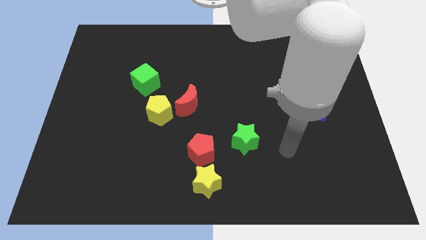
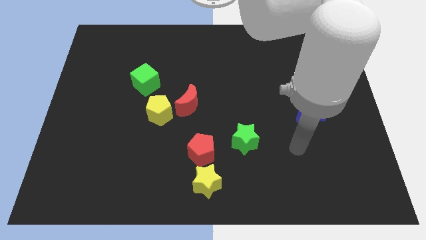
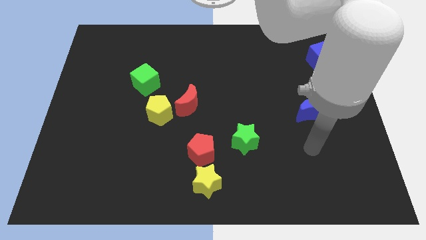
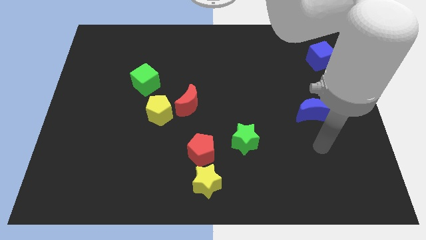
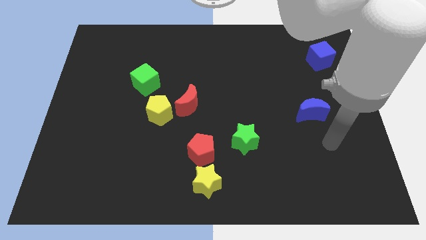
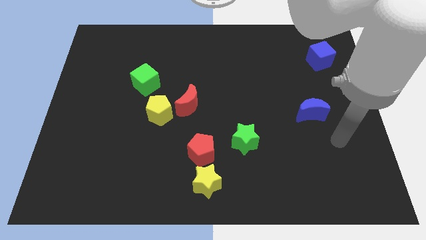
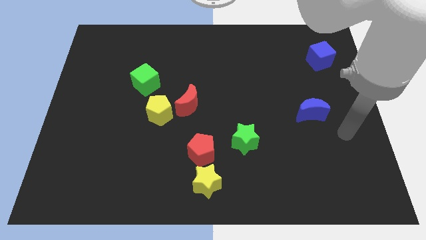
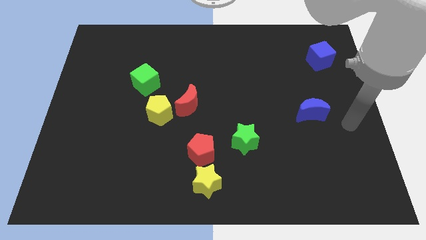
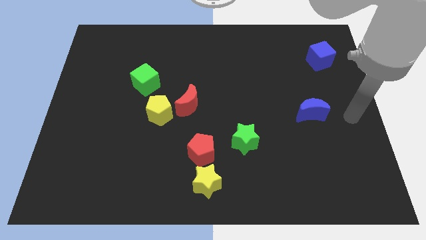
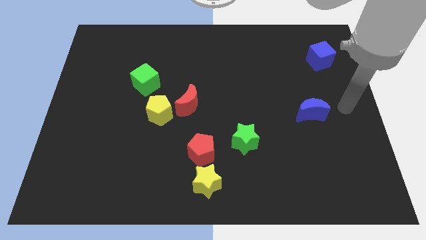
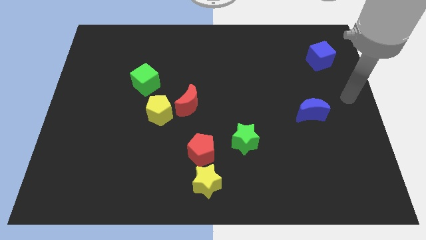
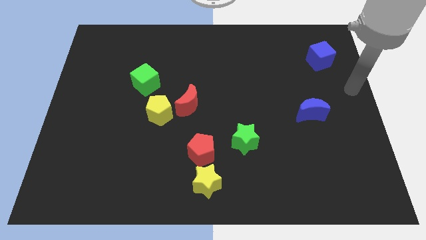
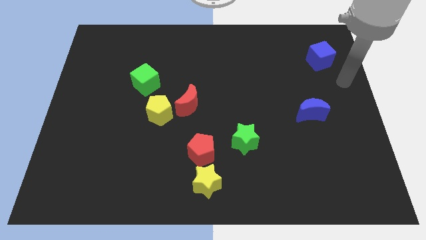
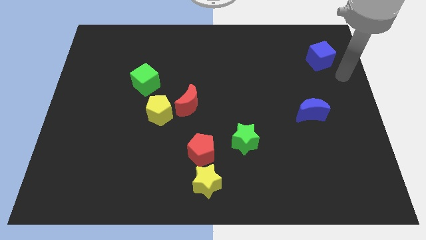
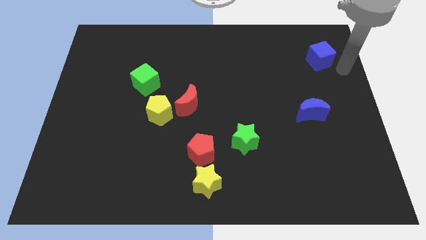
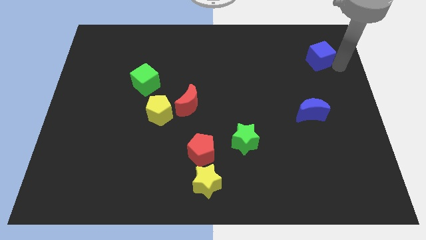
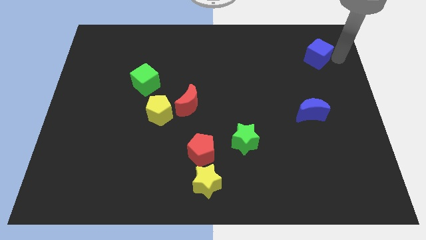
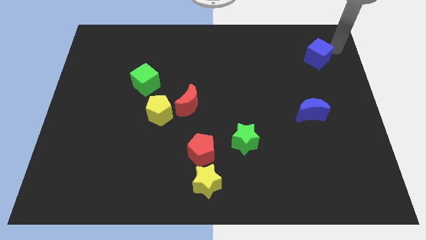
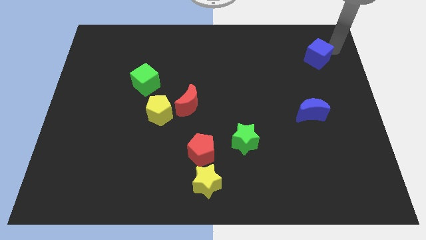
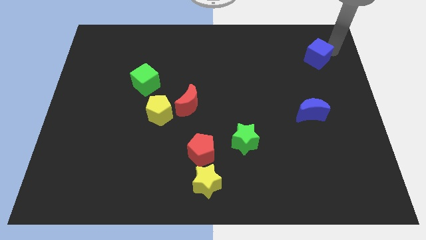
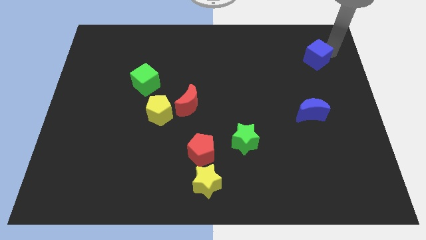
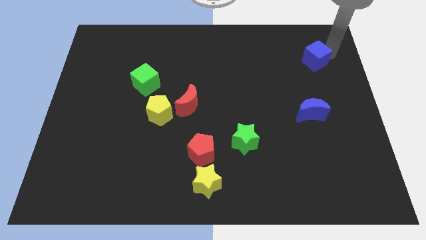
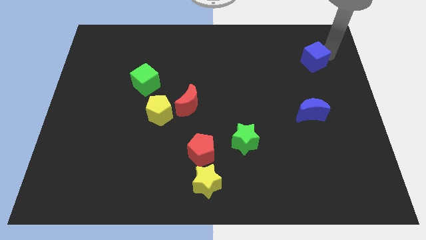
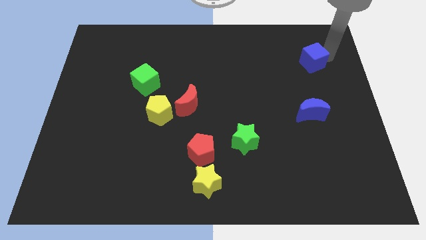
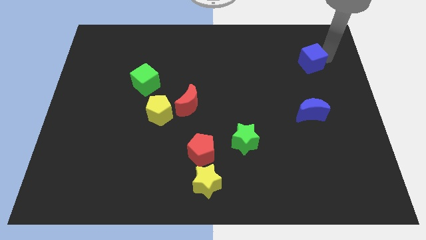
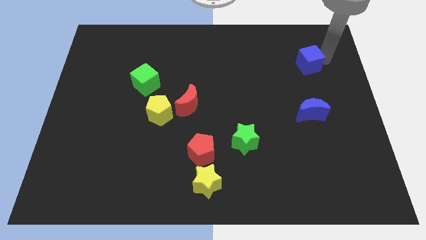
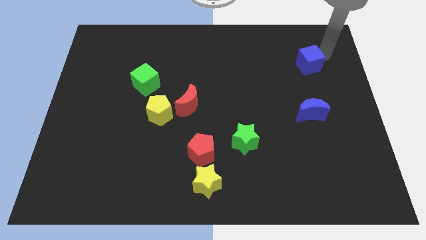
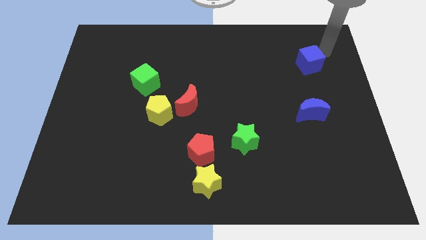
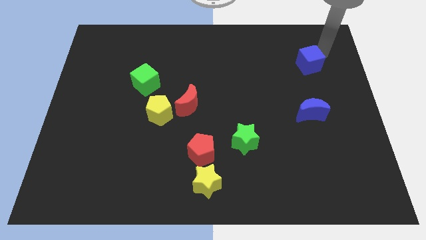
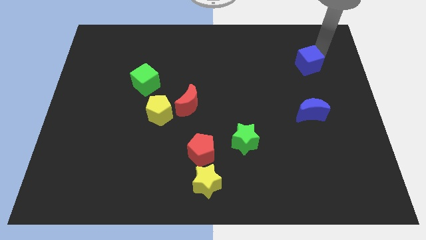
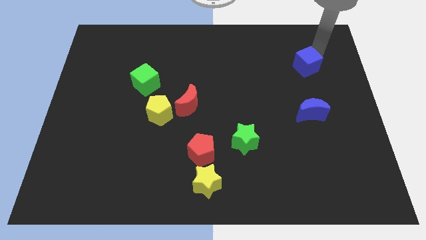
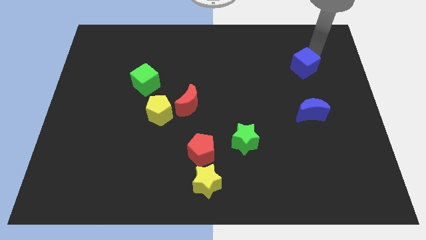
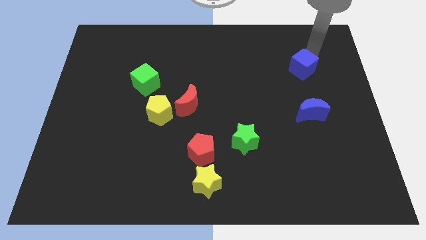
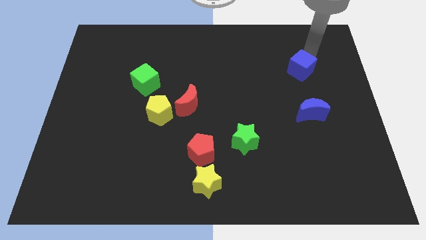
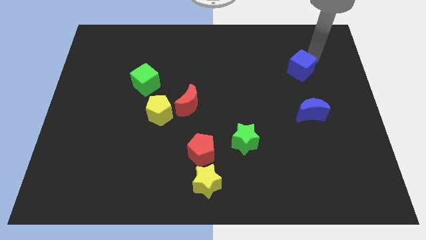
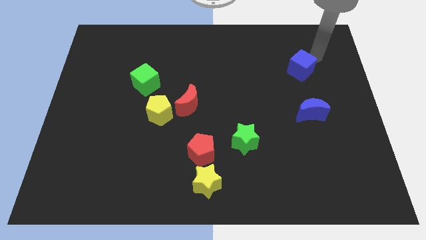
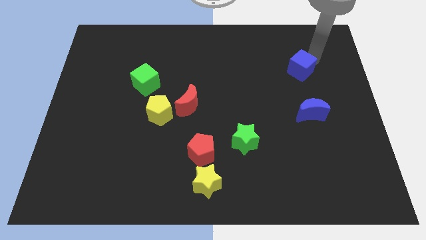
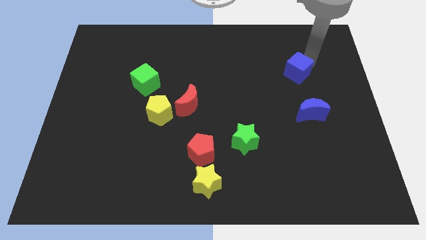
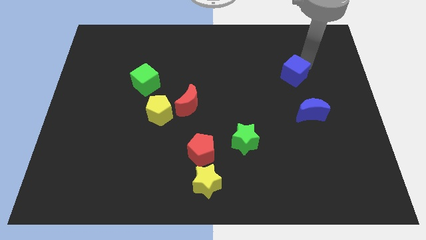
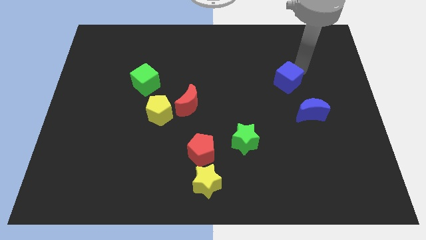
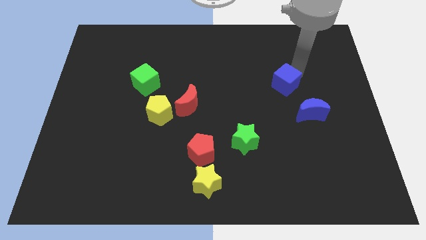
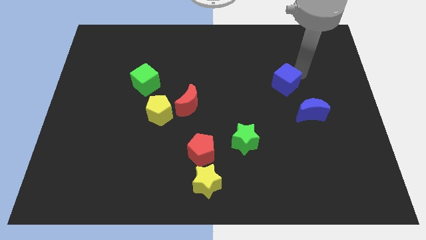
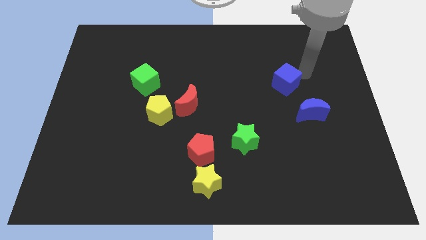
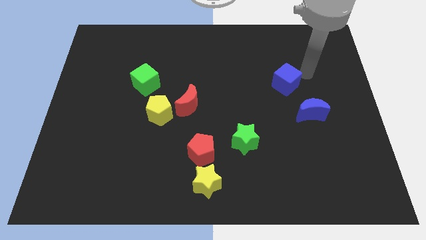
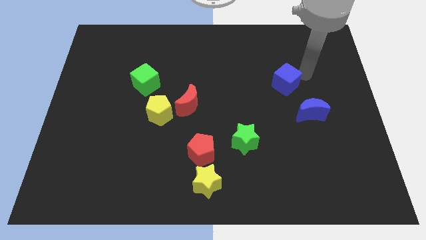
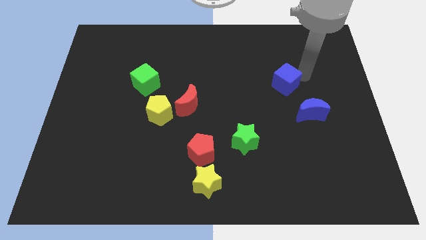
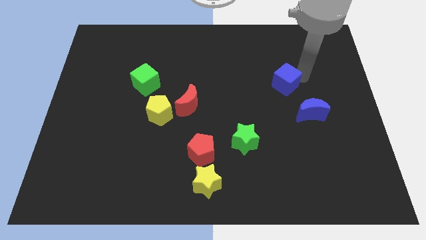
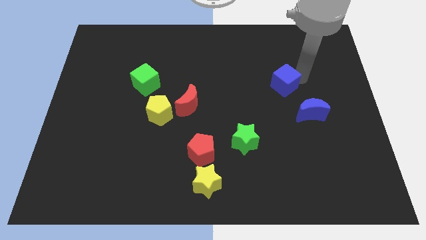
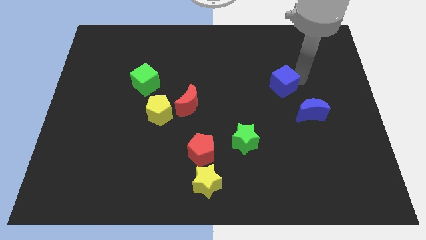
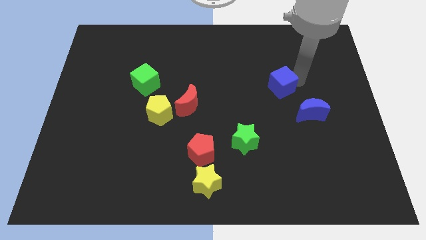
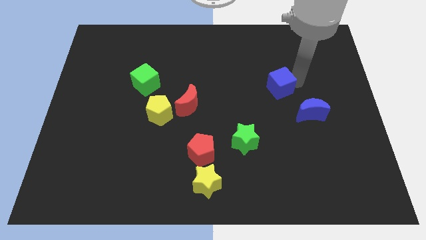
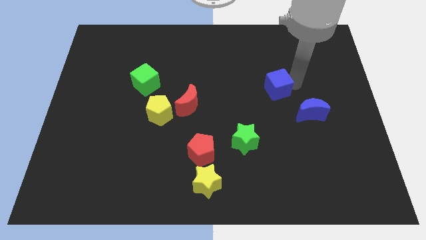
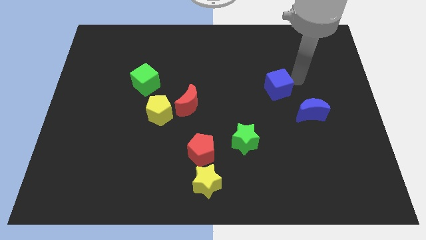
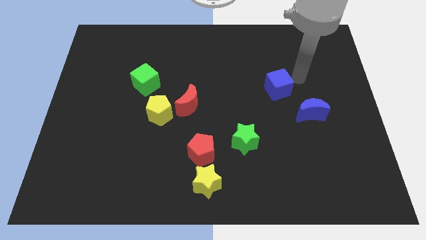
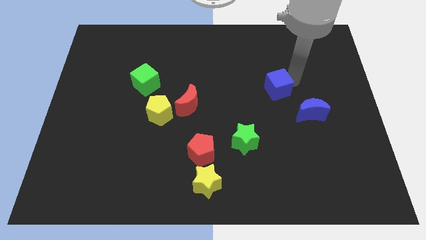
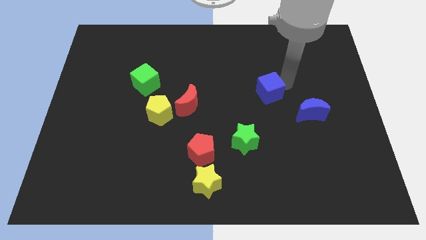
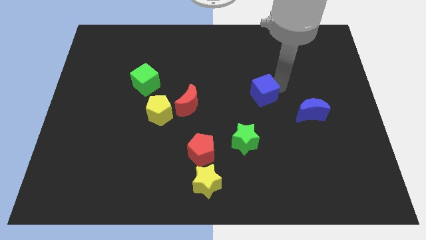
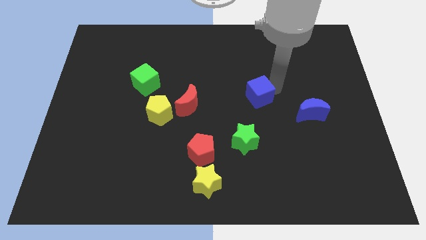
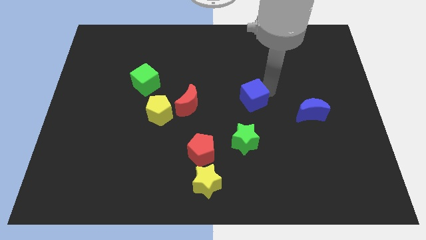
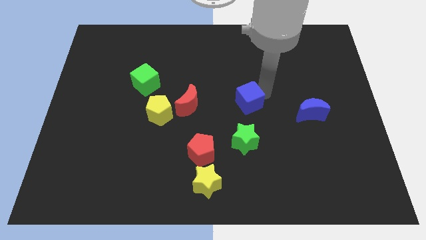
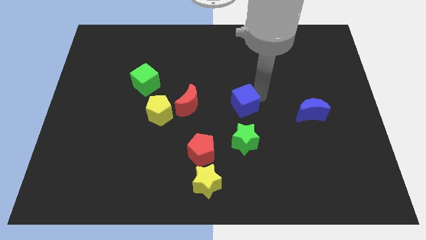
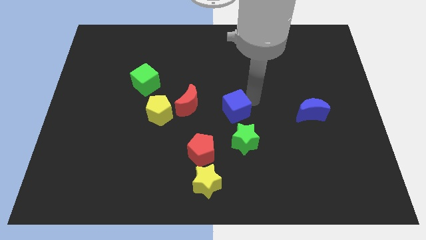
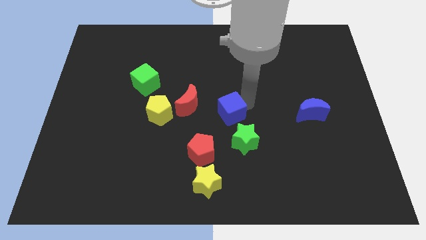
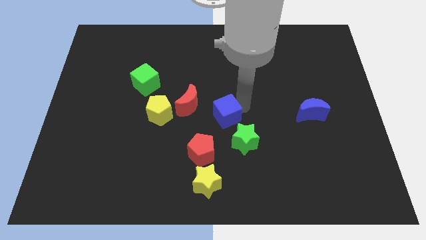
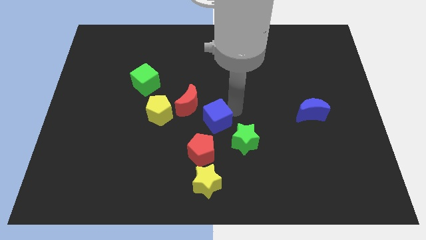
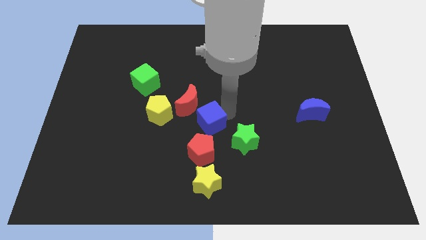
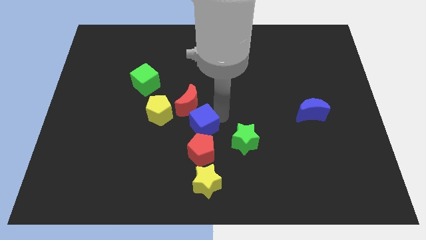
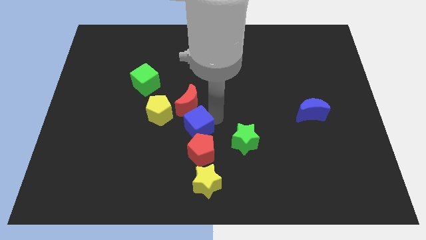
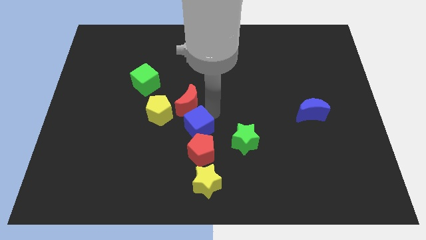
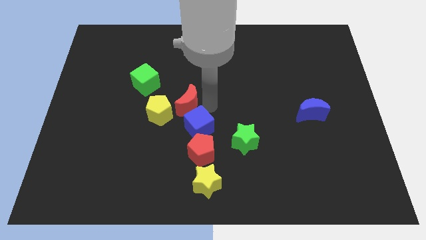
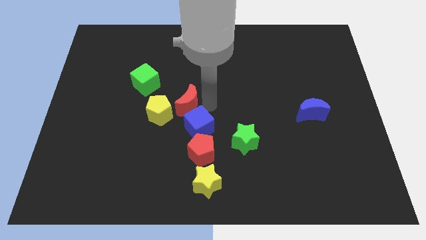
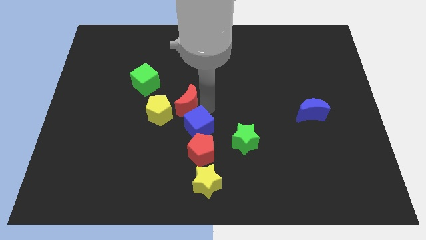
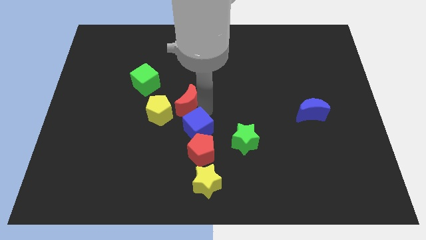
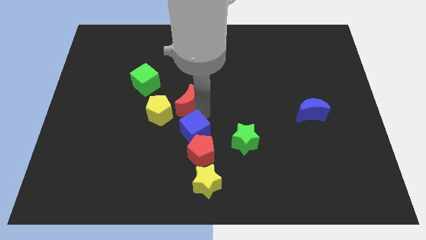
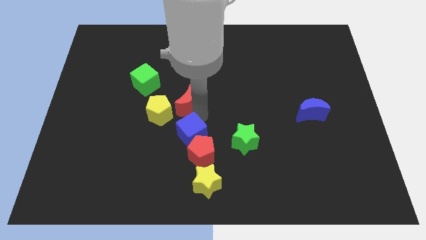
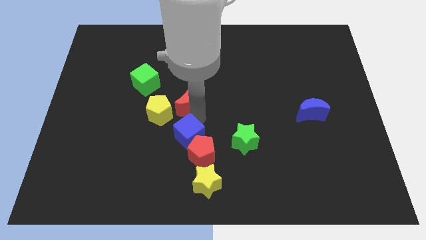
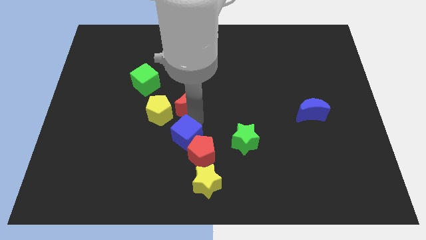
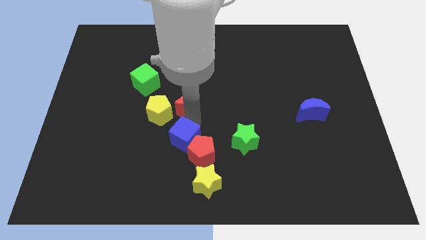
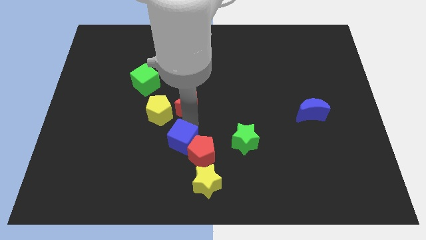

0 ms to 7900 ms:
push the blue cube diagonally up and to the left of the yellow star
